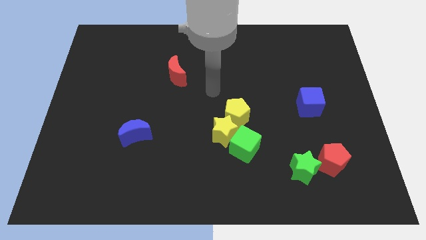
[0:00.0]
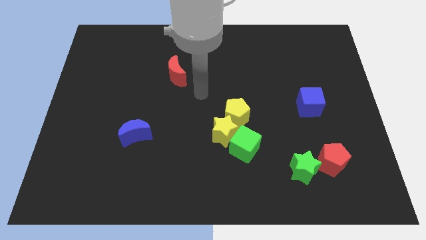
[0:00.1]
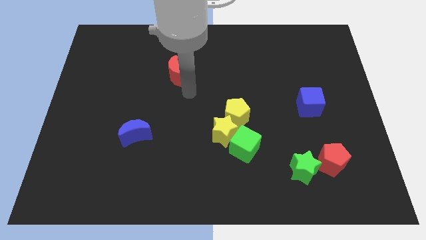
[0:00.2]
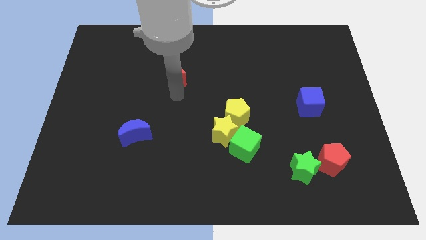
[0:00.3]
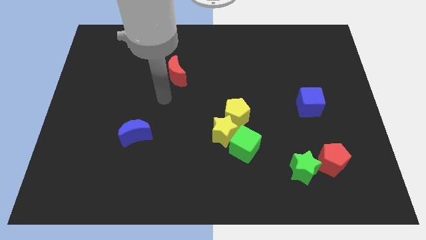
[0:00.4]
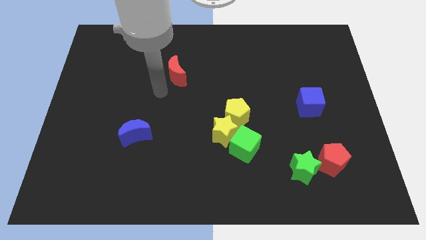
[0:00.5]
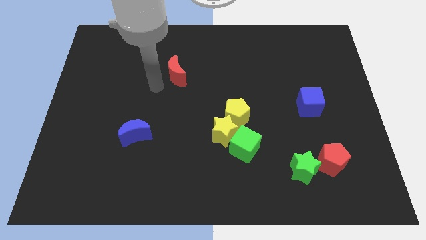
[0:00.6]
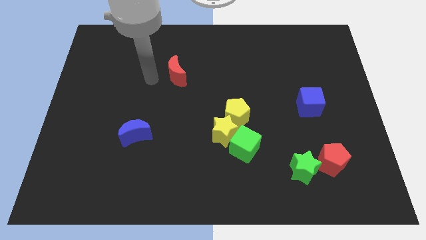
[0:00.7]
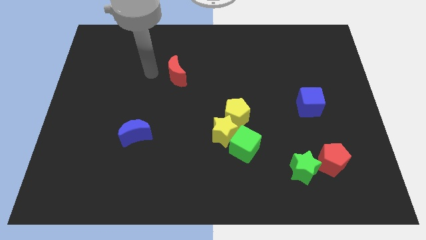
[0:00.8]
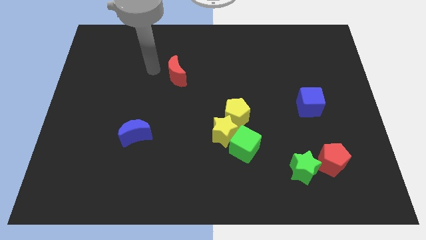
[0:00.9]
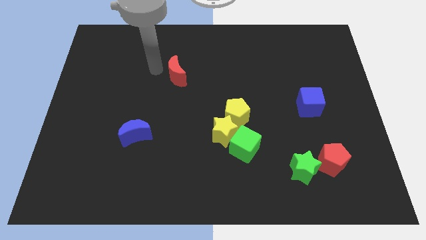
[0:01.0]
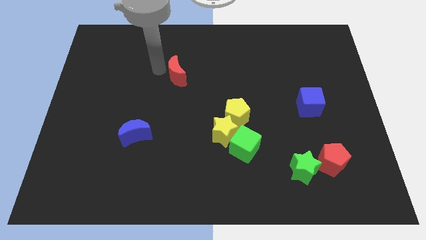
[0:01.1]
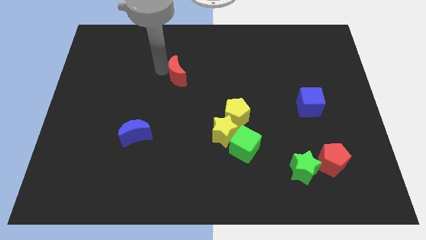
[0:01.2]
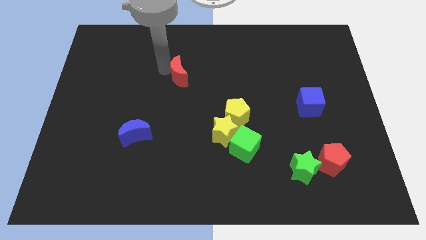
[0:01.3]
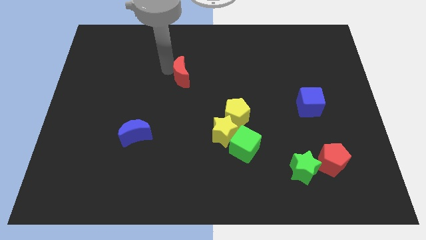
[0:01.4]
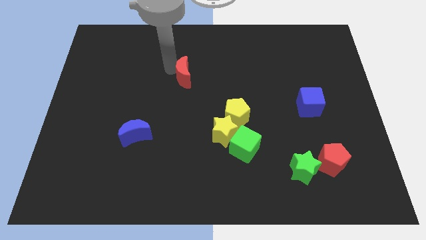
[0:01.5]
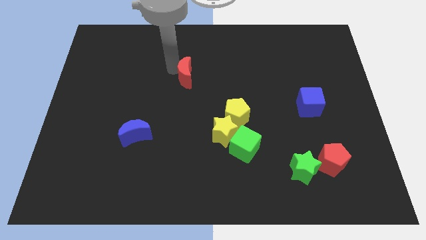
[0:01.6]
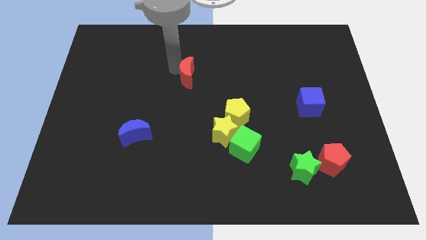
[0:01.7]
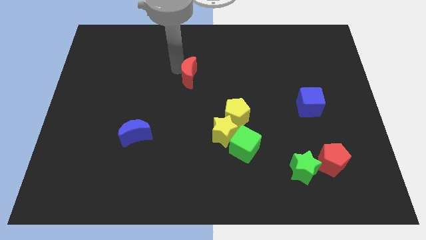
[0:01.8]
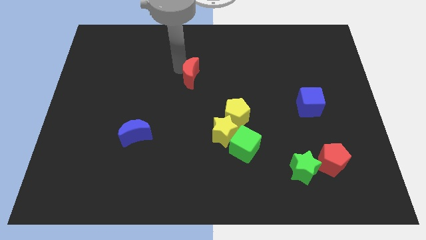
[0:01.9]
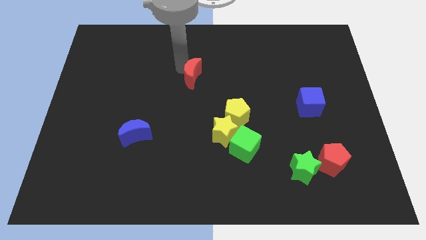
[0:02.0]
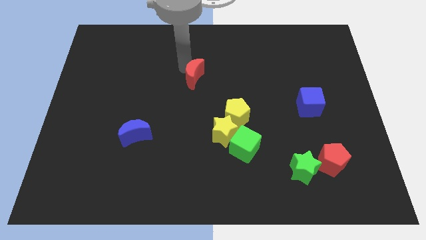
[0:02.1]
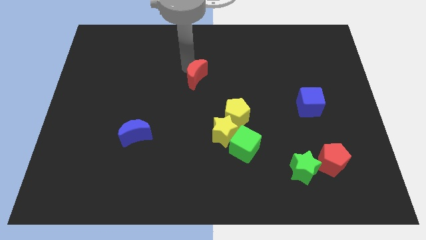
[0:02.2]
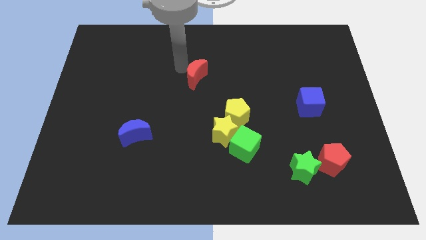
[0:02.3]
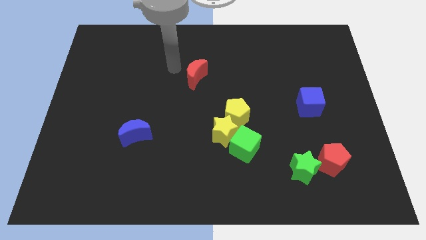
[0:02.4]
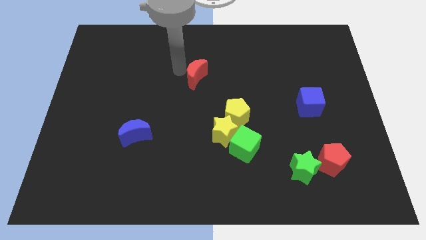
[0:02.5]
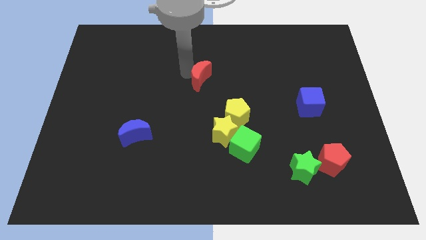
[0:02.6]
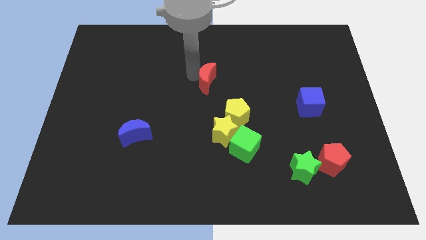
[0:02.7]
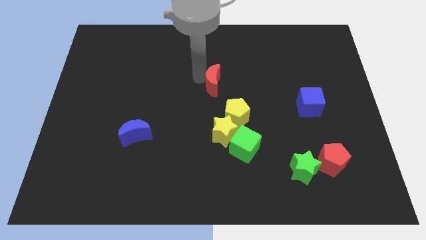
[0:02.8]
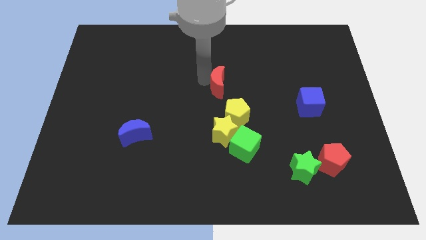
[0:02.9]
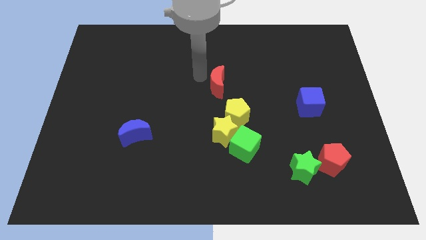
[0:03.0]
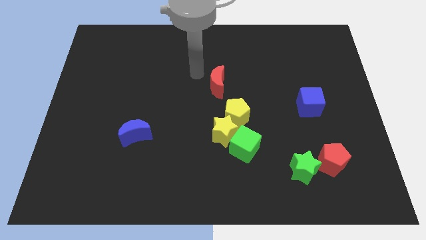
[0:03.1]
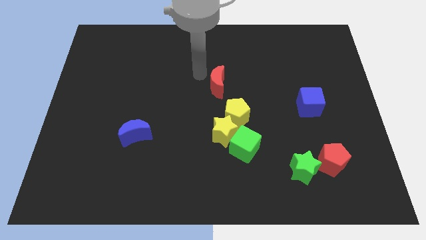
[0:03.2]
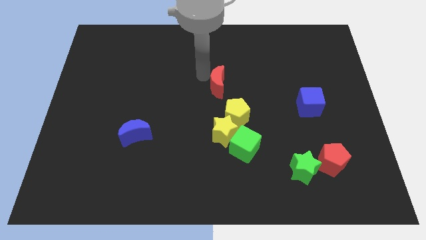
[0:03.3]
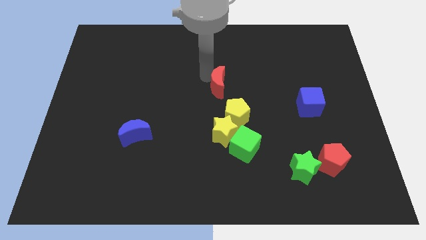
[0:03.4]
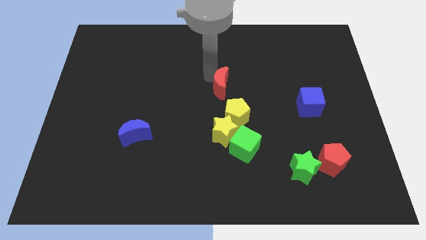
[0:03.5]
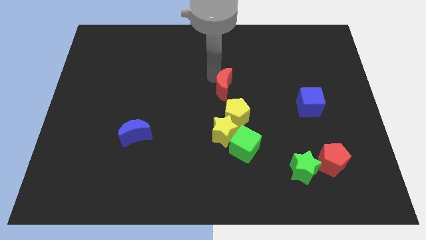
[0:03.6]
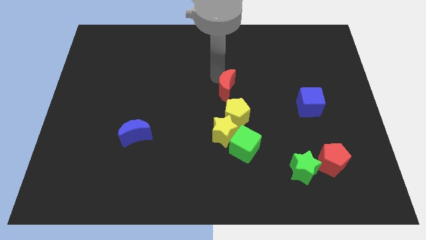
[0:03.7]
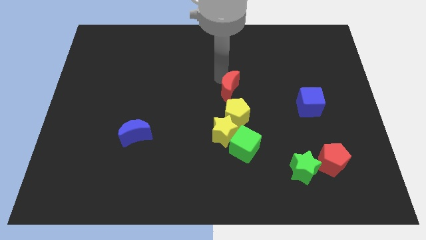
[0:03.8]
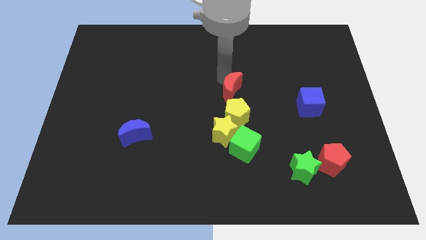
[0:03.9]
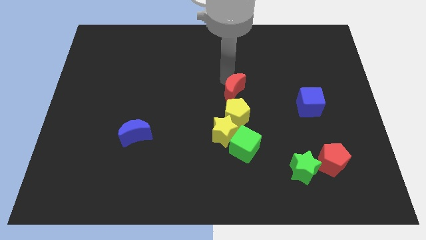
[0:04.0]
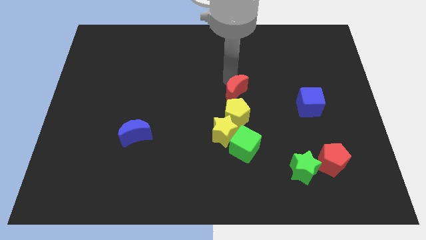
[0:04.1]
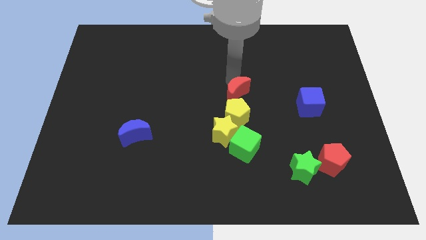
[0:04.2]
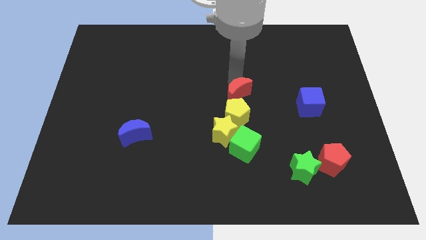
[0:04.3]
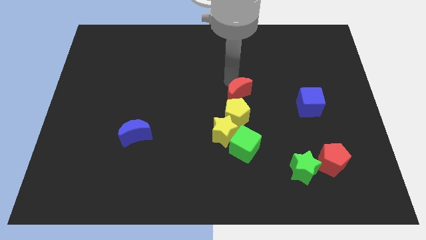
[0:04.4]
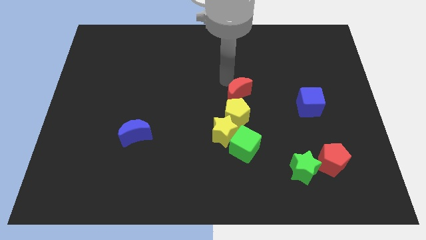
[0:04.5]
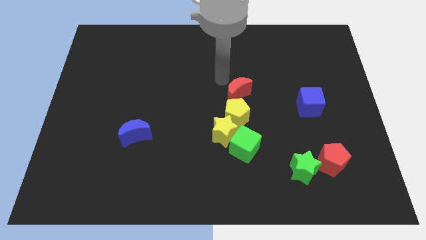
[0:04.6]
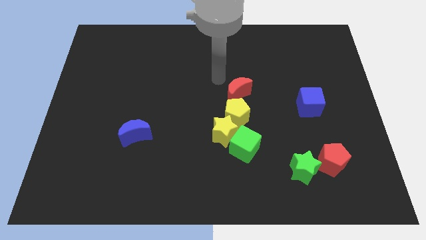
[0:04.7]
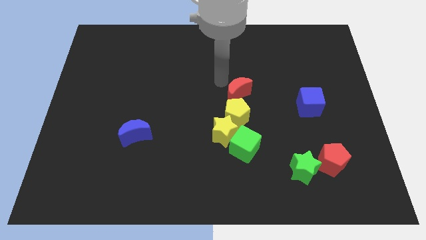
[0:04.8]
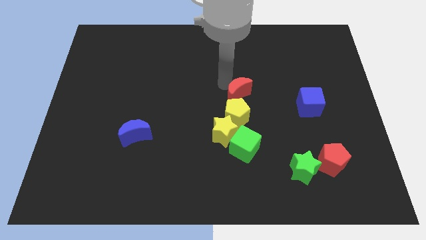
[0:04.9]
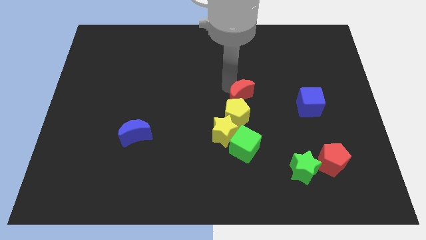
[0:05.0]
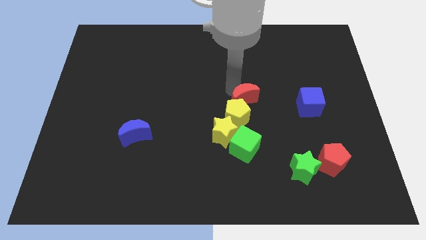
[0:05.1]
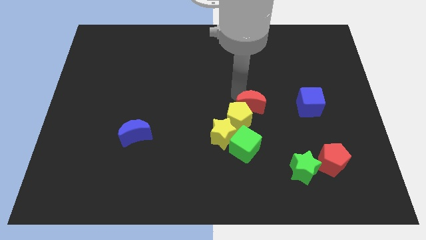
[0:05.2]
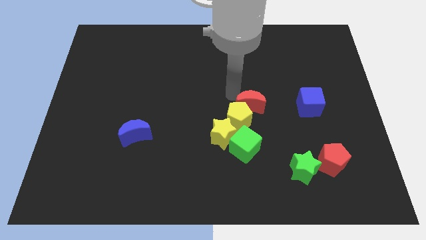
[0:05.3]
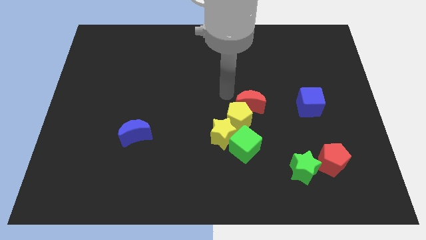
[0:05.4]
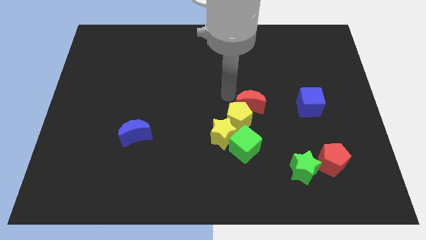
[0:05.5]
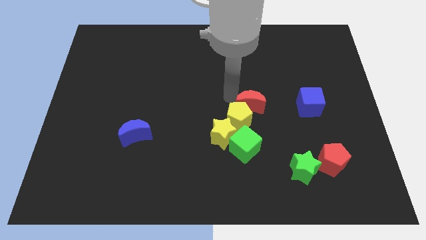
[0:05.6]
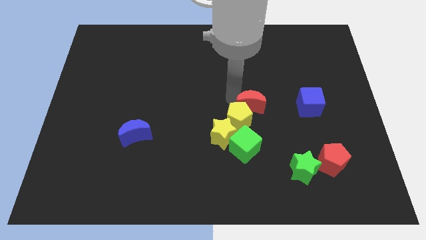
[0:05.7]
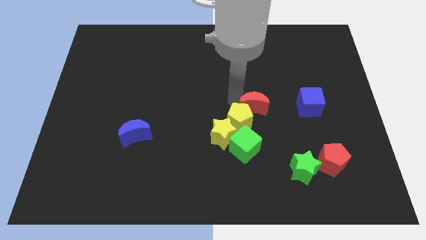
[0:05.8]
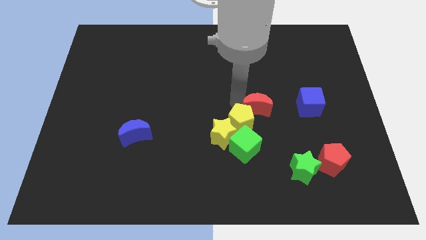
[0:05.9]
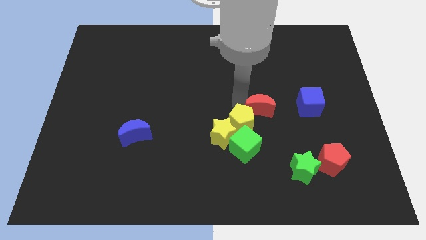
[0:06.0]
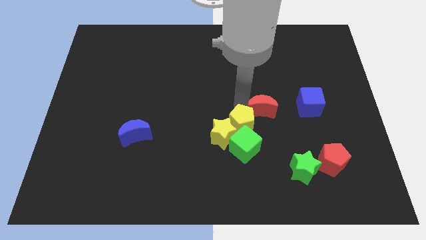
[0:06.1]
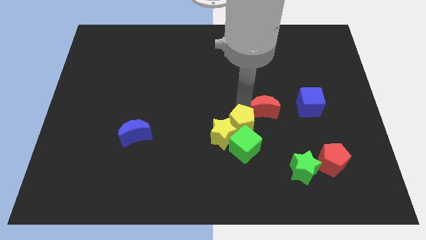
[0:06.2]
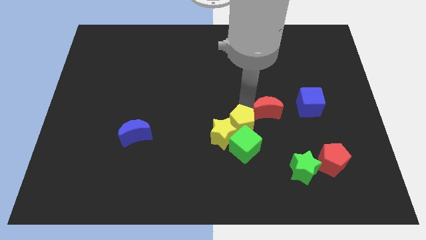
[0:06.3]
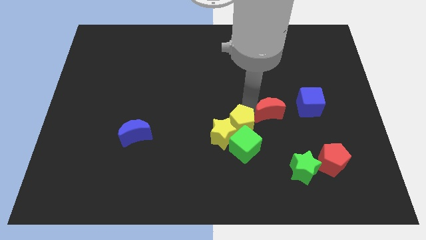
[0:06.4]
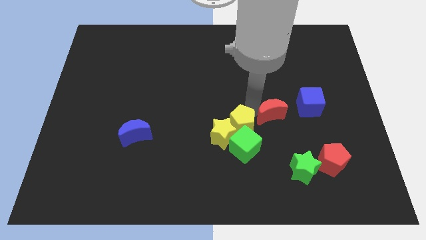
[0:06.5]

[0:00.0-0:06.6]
push the red moon to the bottom left side of the blue cube
